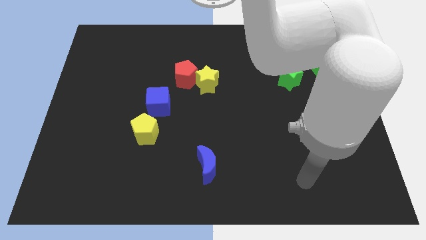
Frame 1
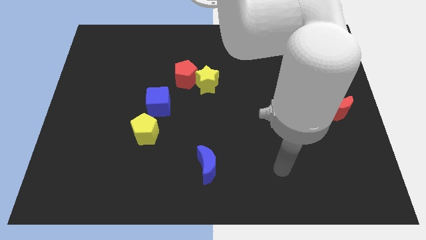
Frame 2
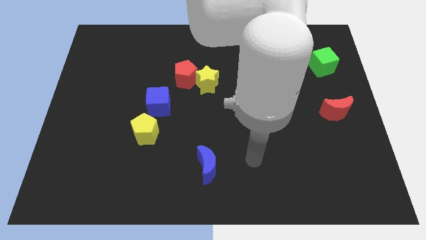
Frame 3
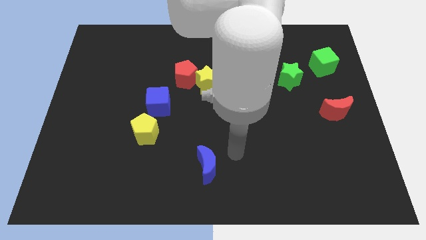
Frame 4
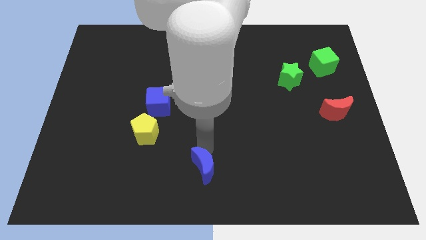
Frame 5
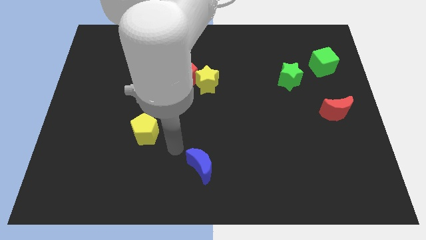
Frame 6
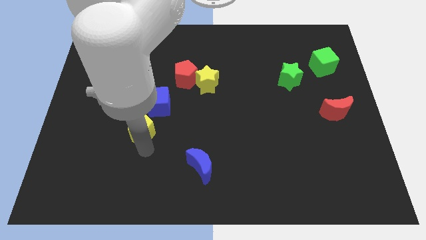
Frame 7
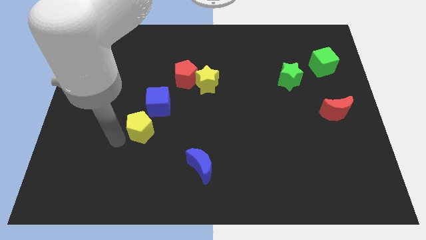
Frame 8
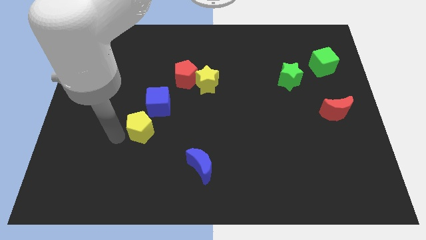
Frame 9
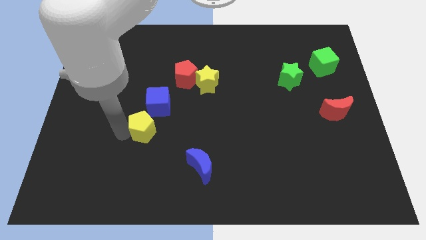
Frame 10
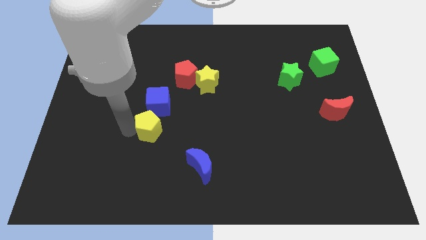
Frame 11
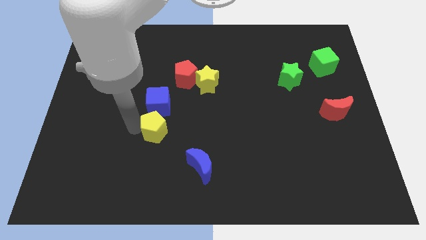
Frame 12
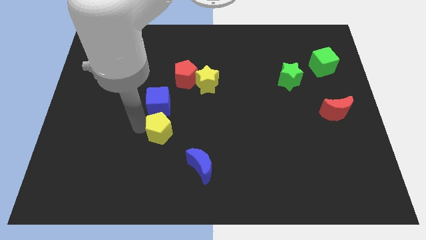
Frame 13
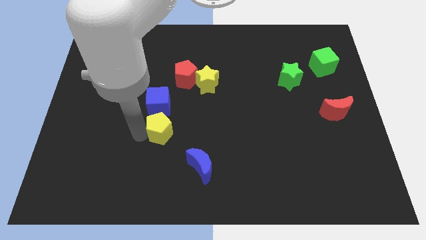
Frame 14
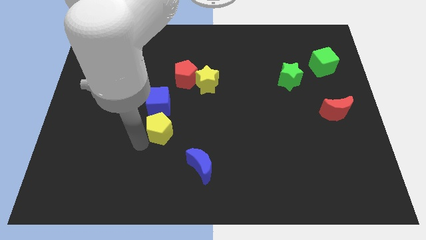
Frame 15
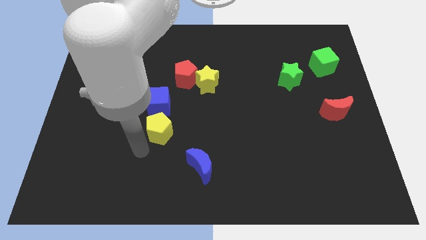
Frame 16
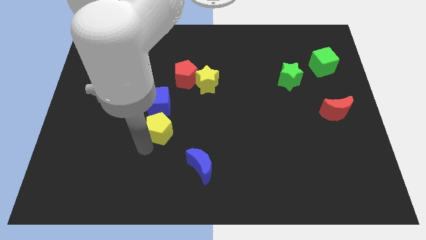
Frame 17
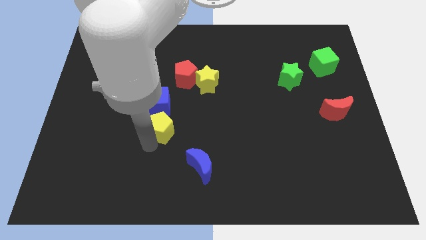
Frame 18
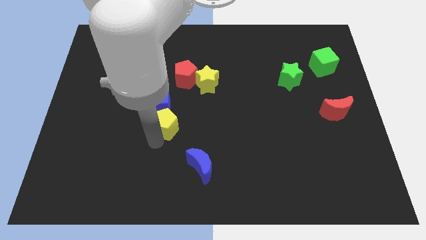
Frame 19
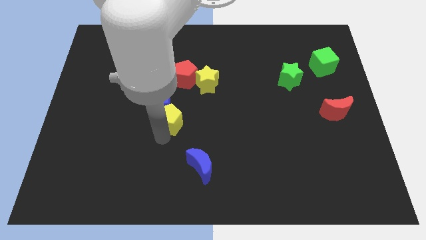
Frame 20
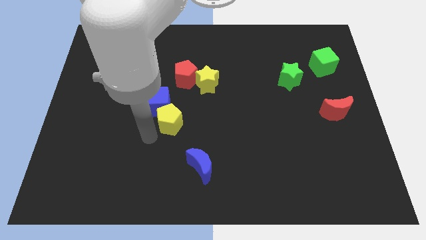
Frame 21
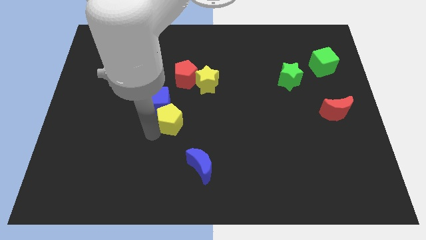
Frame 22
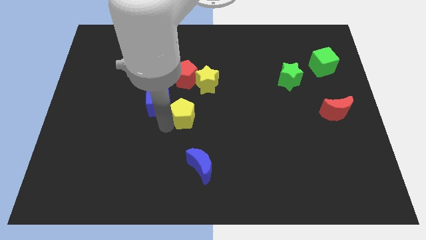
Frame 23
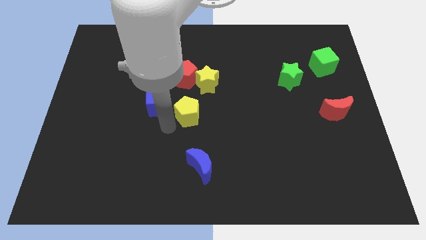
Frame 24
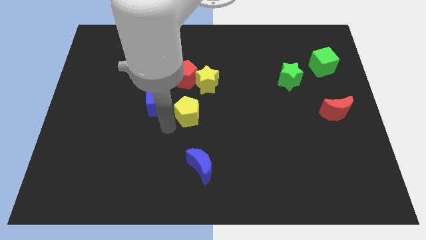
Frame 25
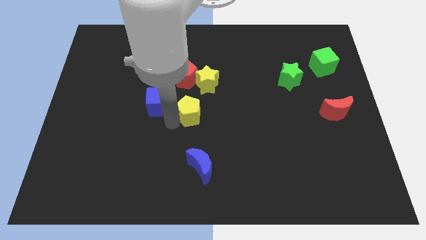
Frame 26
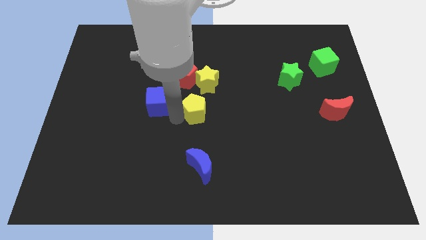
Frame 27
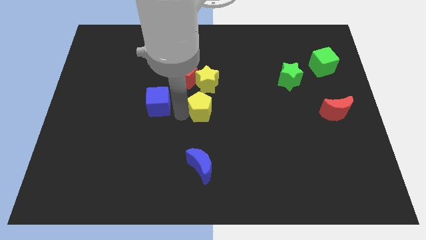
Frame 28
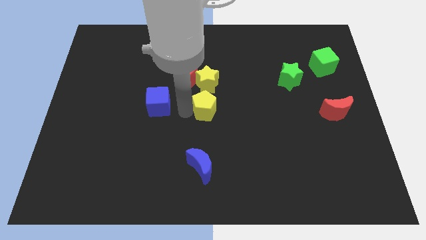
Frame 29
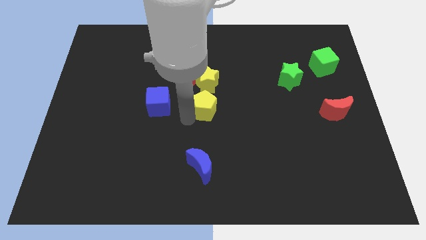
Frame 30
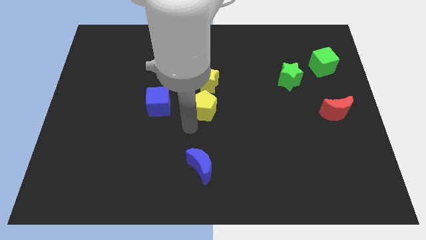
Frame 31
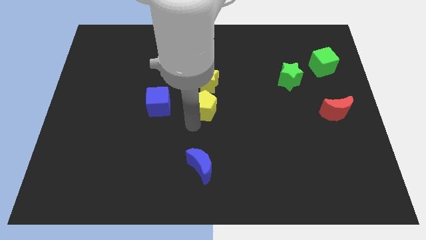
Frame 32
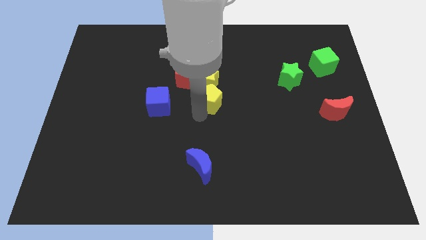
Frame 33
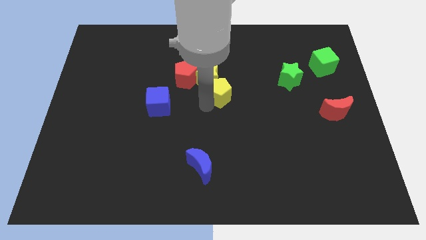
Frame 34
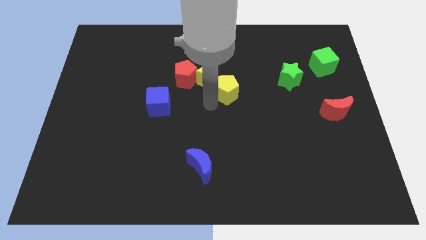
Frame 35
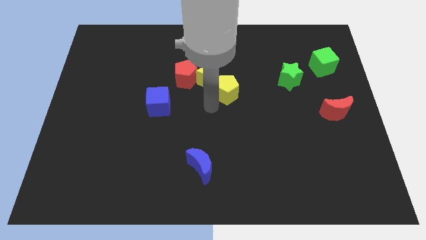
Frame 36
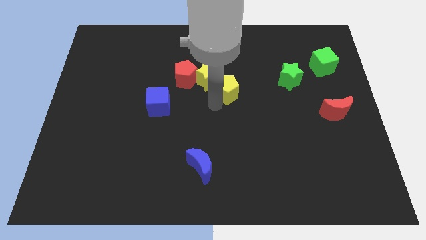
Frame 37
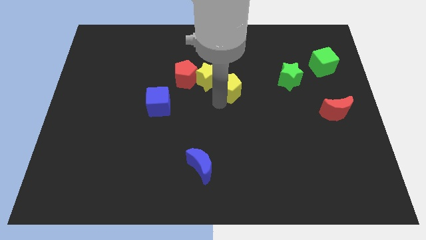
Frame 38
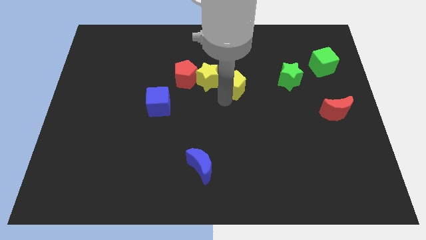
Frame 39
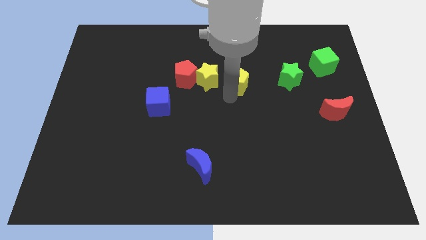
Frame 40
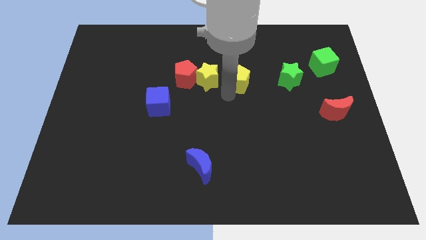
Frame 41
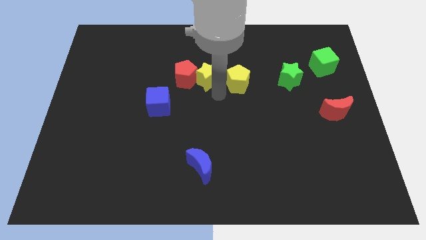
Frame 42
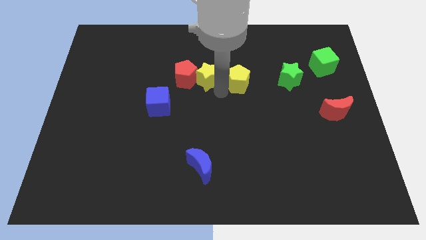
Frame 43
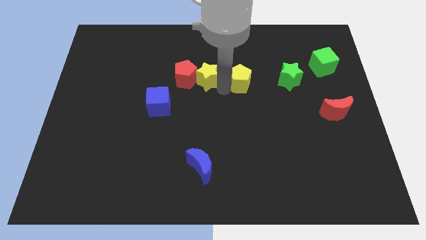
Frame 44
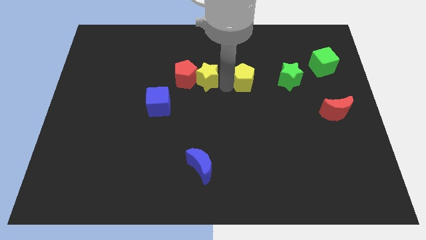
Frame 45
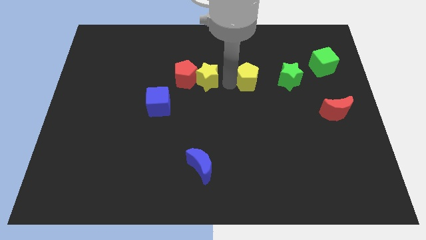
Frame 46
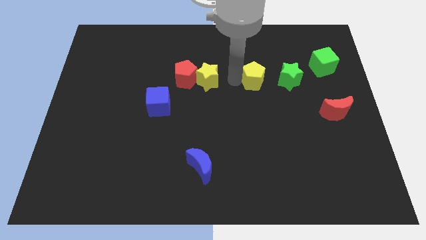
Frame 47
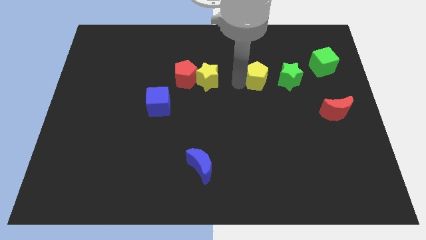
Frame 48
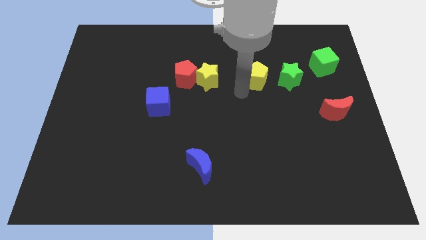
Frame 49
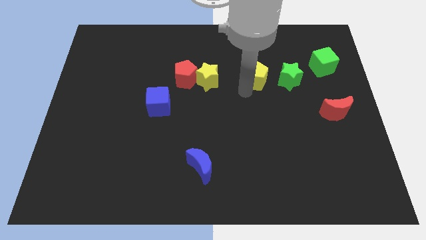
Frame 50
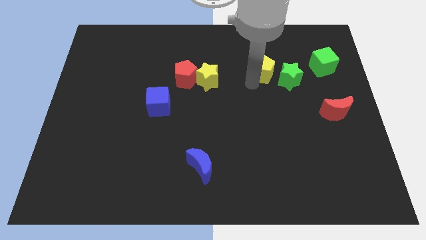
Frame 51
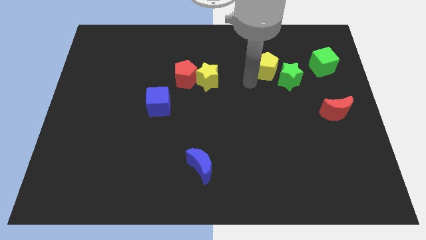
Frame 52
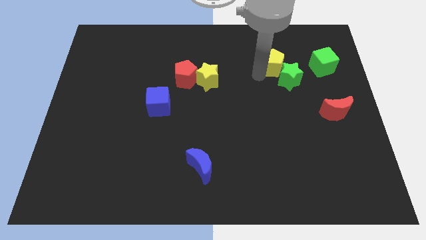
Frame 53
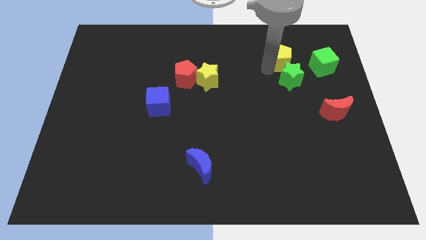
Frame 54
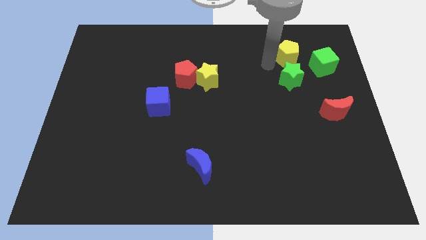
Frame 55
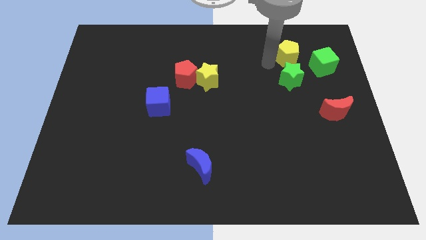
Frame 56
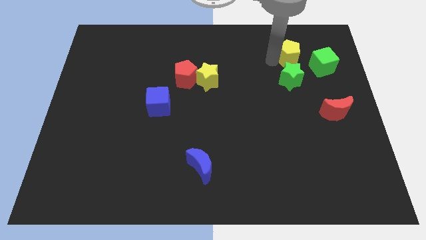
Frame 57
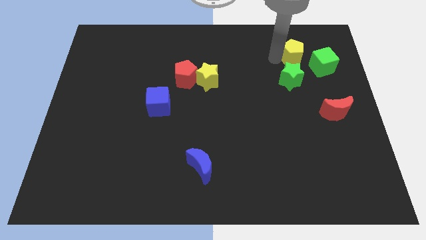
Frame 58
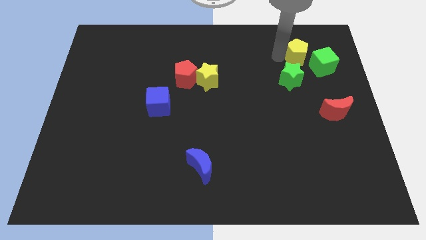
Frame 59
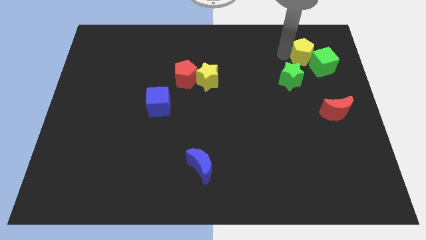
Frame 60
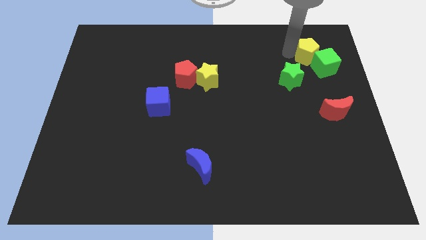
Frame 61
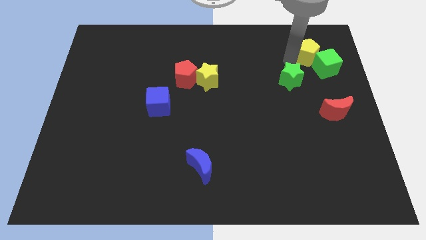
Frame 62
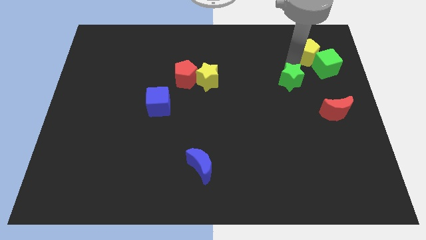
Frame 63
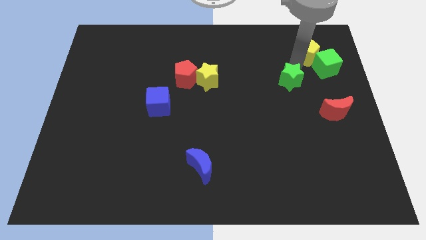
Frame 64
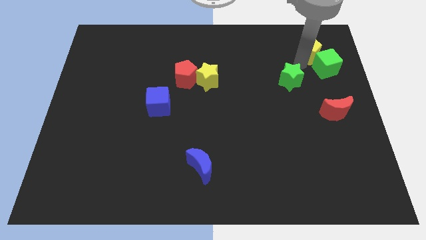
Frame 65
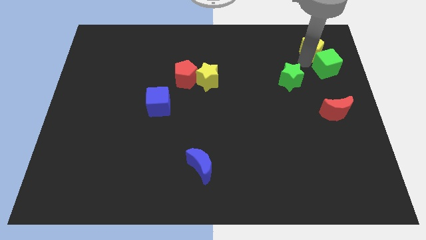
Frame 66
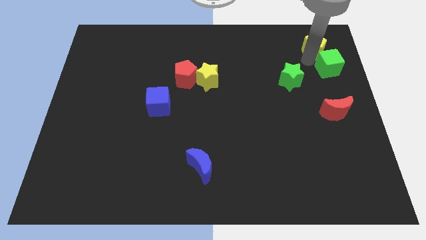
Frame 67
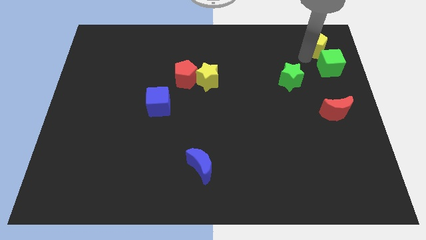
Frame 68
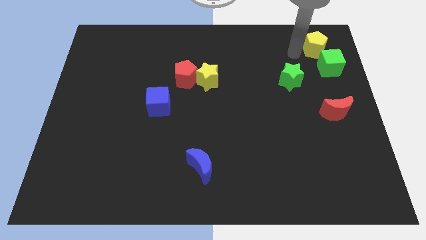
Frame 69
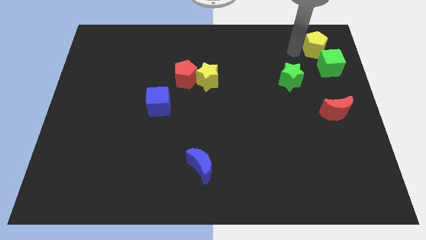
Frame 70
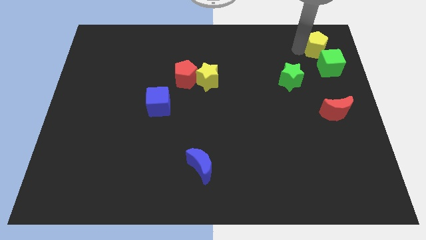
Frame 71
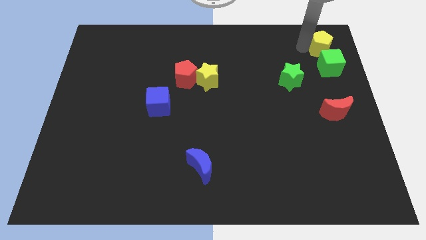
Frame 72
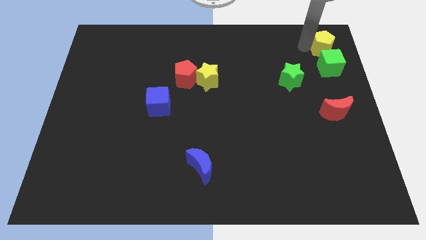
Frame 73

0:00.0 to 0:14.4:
push the yellow pentagon to the top right corner
